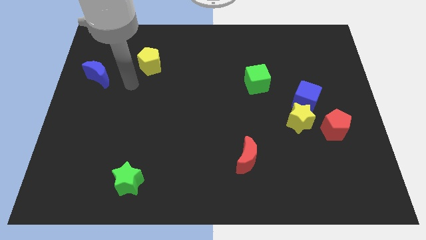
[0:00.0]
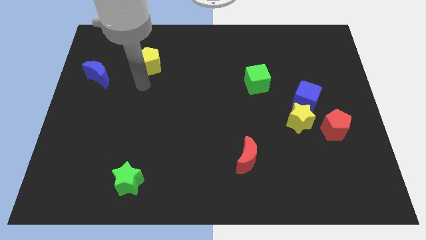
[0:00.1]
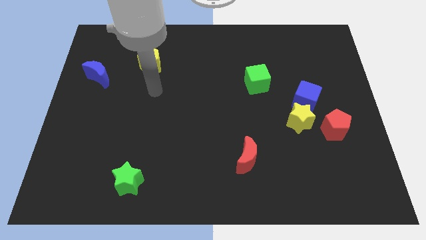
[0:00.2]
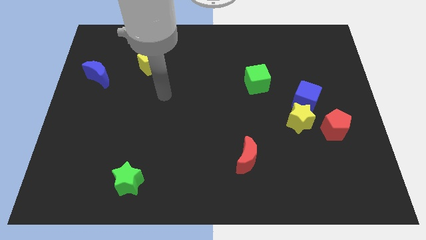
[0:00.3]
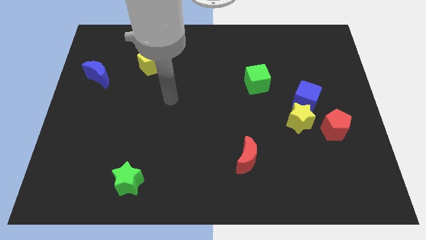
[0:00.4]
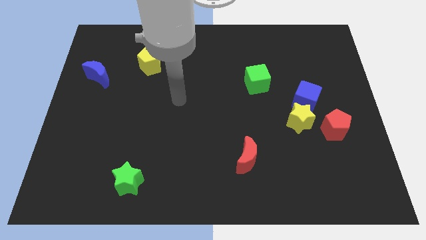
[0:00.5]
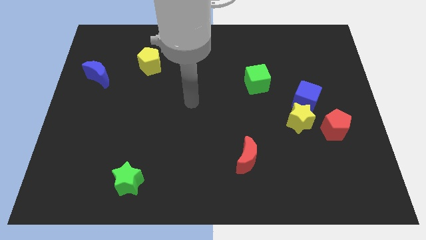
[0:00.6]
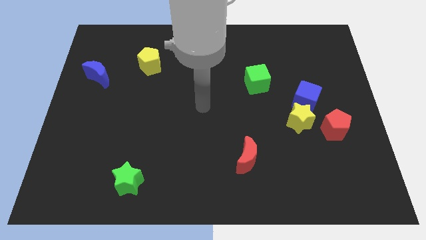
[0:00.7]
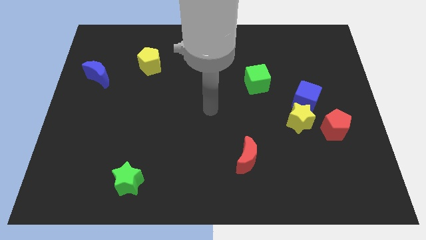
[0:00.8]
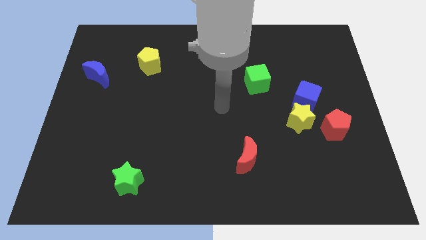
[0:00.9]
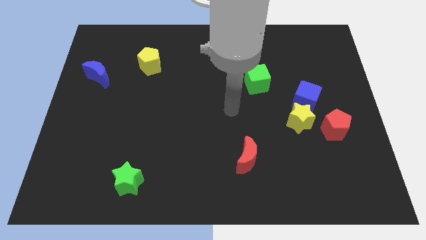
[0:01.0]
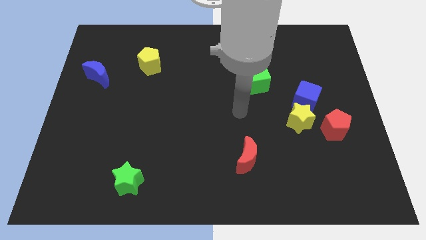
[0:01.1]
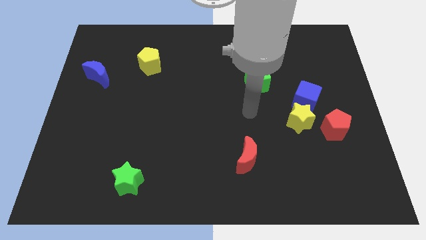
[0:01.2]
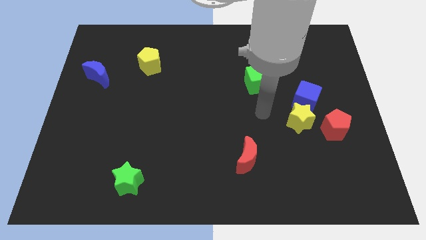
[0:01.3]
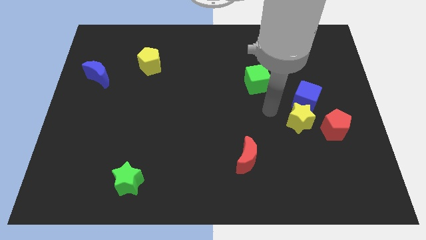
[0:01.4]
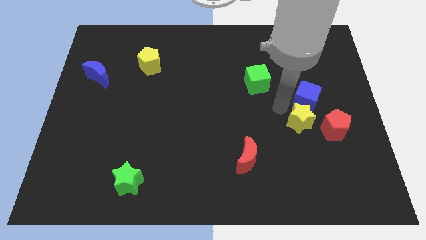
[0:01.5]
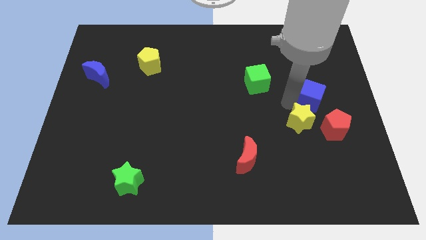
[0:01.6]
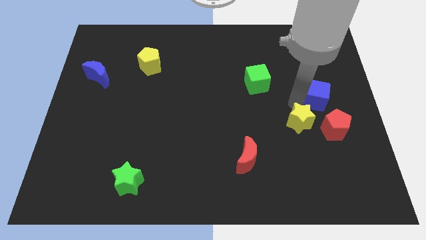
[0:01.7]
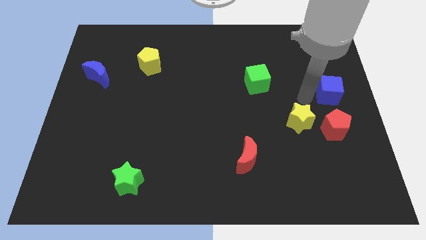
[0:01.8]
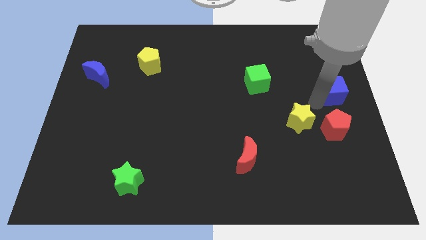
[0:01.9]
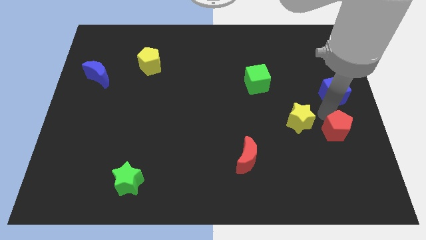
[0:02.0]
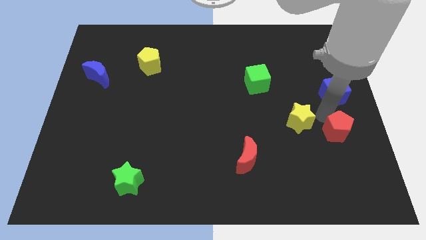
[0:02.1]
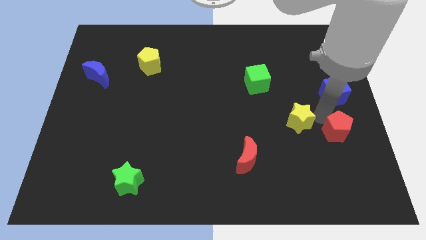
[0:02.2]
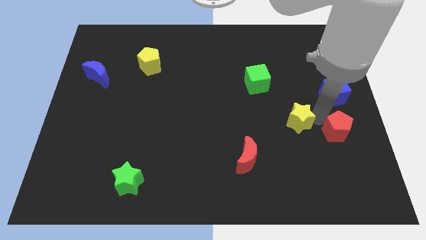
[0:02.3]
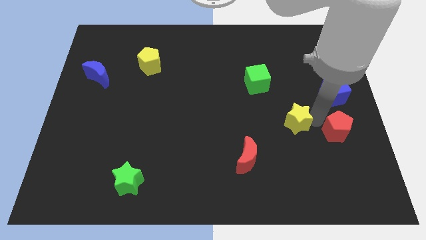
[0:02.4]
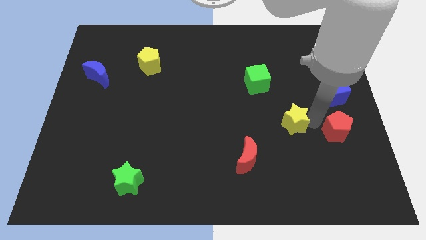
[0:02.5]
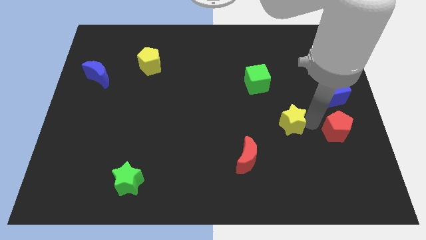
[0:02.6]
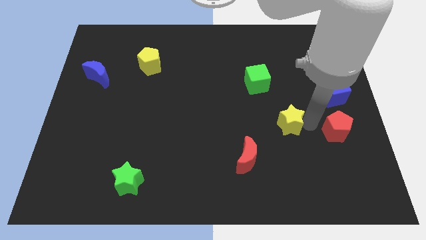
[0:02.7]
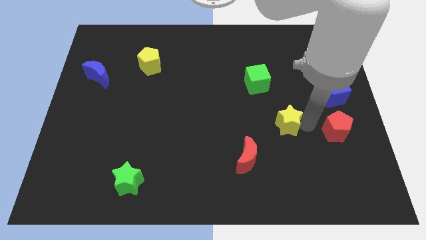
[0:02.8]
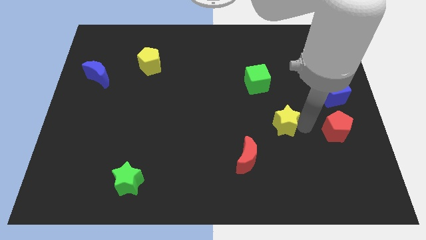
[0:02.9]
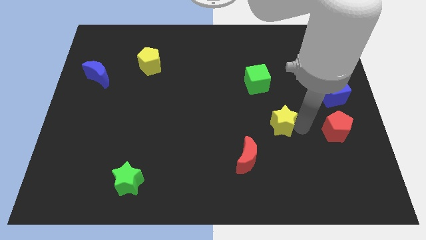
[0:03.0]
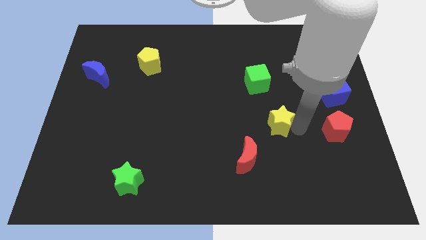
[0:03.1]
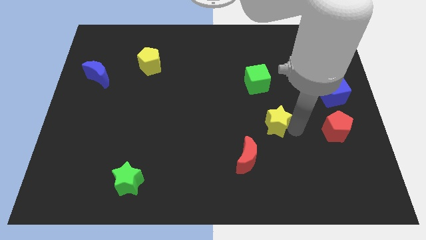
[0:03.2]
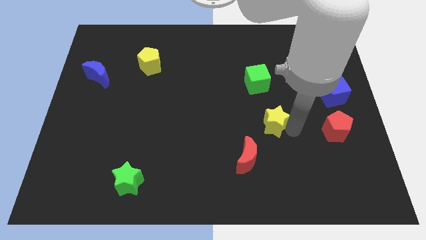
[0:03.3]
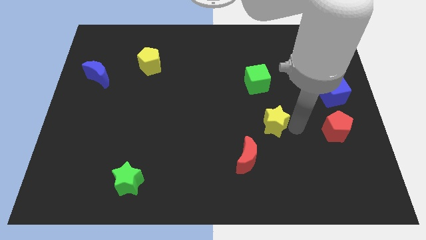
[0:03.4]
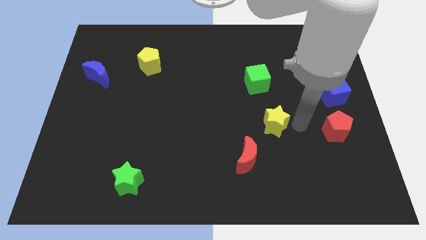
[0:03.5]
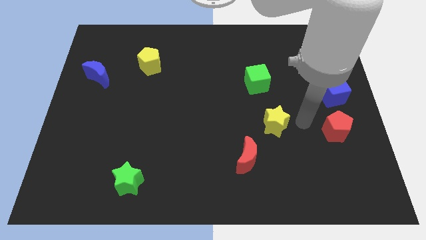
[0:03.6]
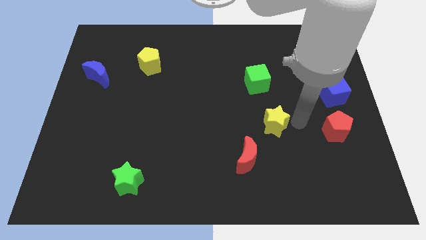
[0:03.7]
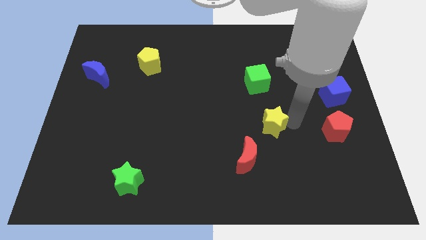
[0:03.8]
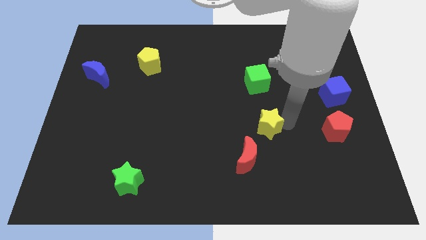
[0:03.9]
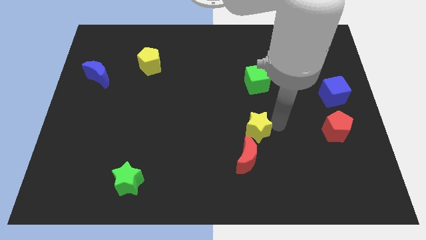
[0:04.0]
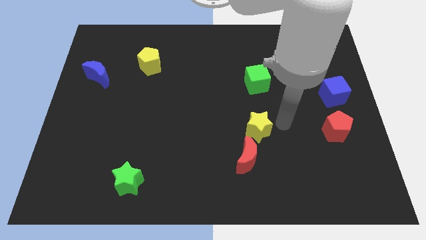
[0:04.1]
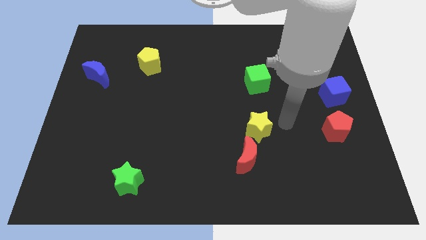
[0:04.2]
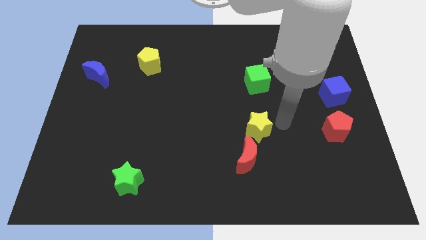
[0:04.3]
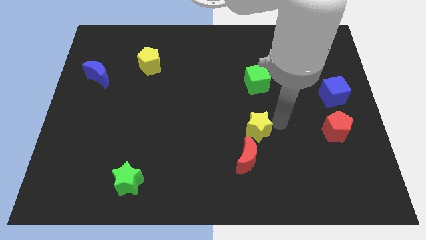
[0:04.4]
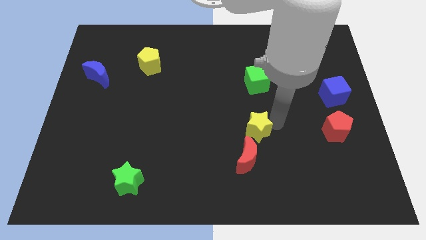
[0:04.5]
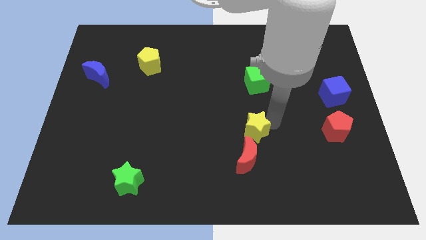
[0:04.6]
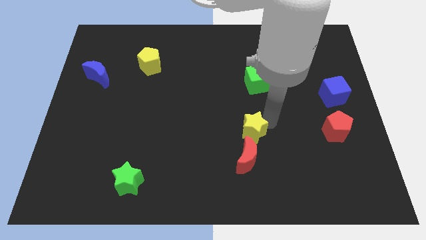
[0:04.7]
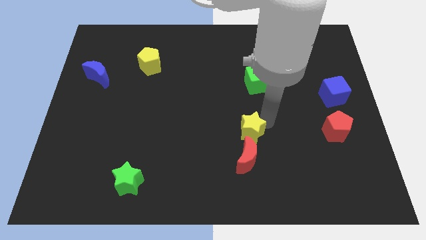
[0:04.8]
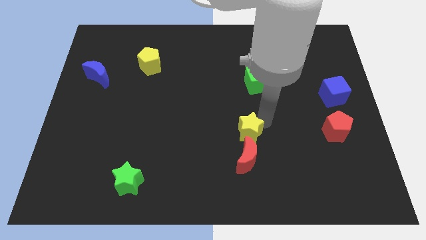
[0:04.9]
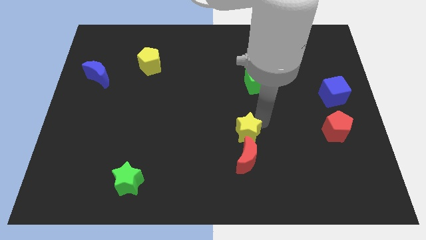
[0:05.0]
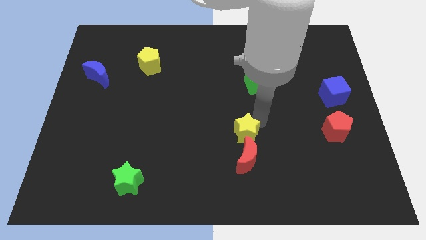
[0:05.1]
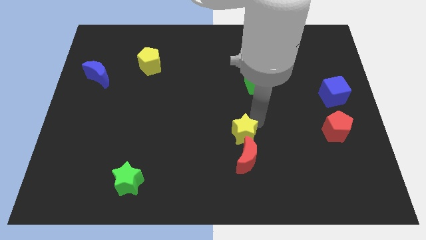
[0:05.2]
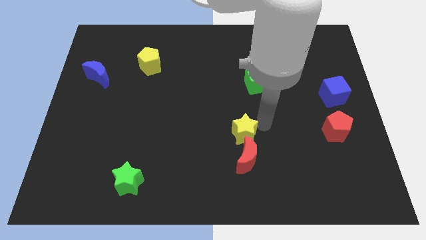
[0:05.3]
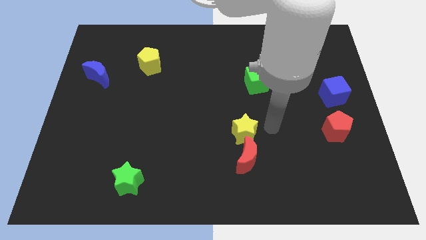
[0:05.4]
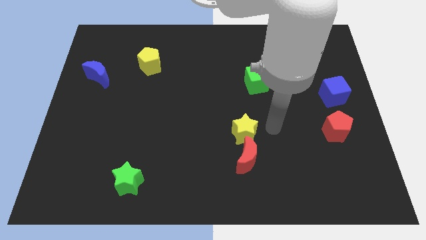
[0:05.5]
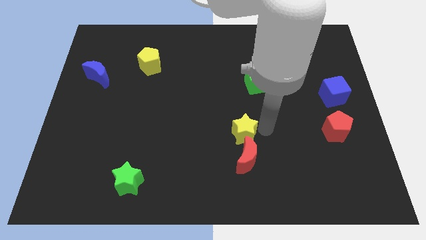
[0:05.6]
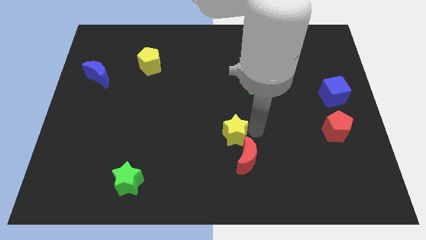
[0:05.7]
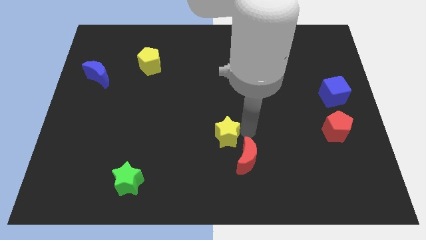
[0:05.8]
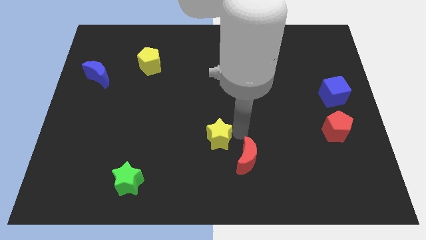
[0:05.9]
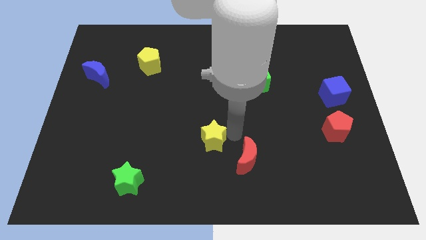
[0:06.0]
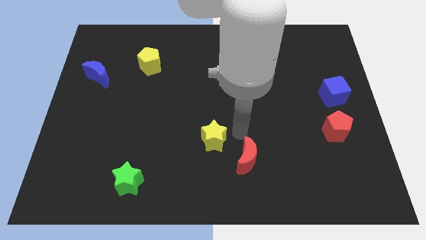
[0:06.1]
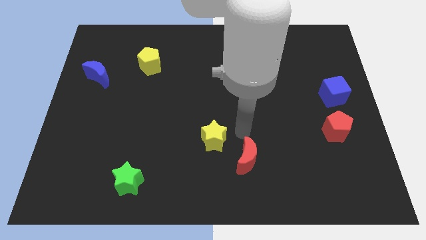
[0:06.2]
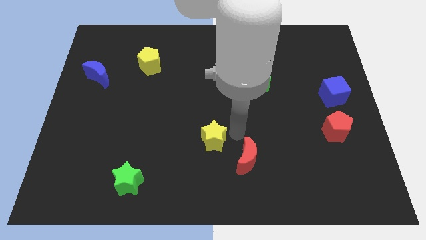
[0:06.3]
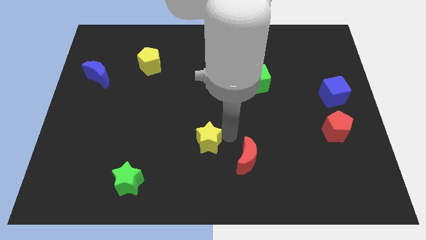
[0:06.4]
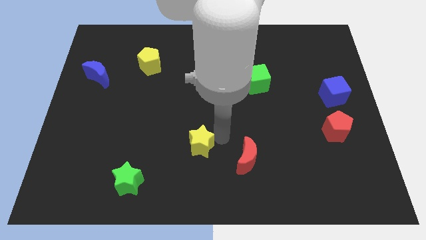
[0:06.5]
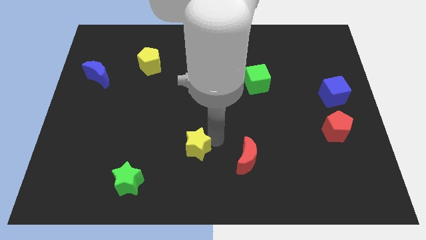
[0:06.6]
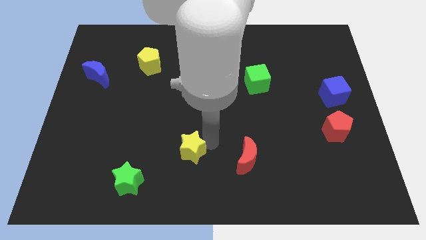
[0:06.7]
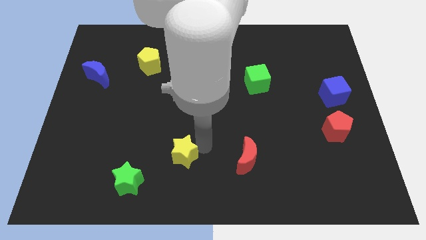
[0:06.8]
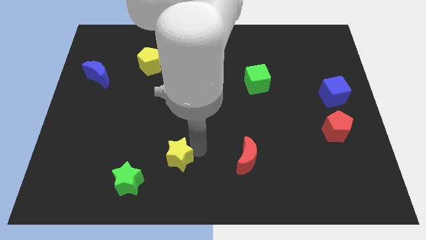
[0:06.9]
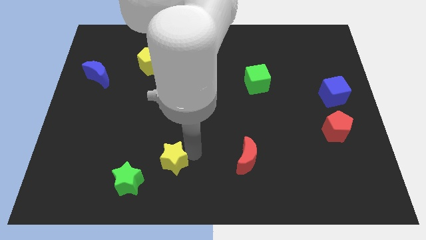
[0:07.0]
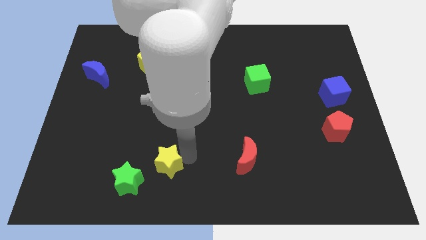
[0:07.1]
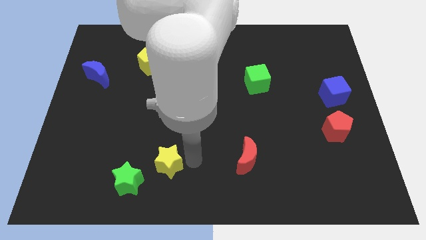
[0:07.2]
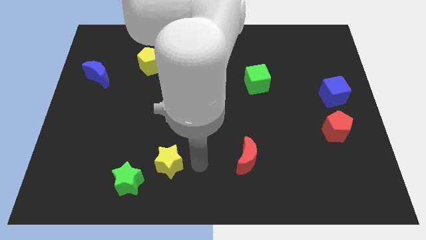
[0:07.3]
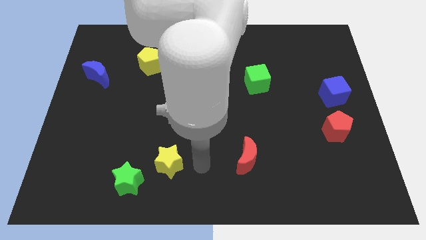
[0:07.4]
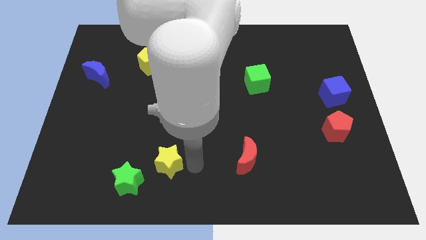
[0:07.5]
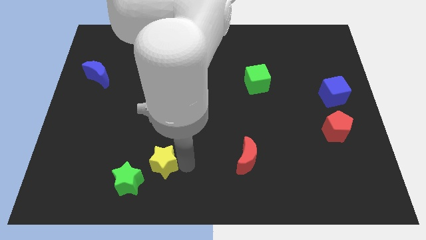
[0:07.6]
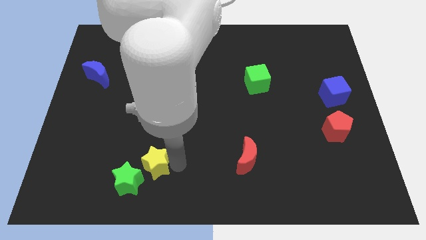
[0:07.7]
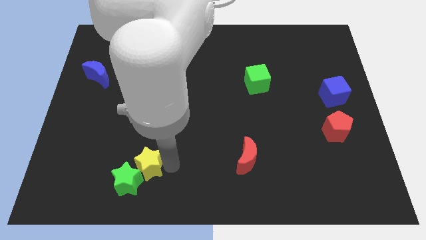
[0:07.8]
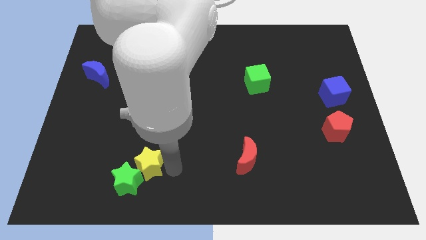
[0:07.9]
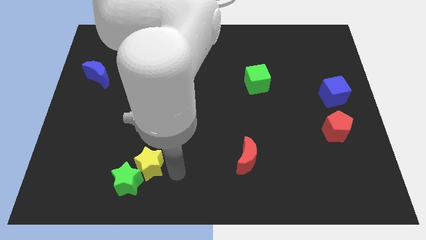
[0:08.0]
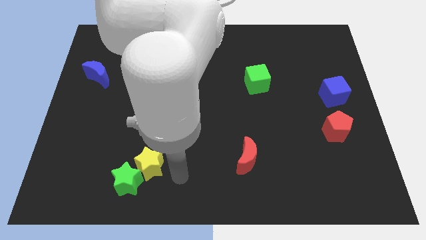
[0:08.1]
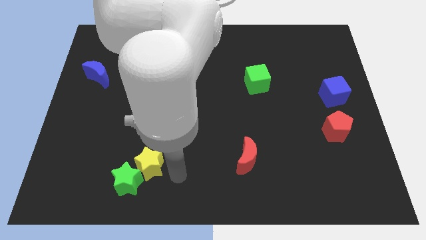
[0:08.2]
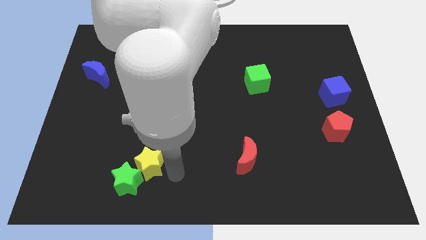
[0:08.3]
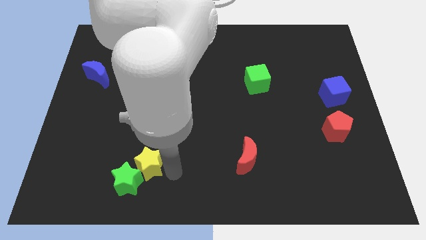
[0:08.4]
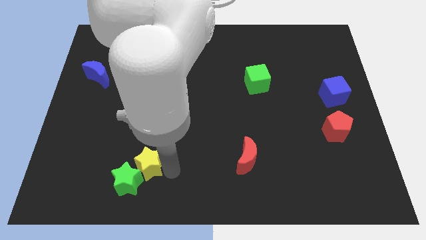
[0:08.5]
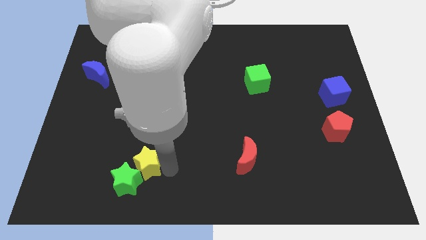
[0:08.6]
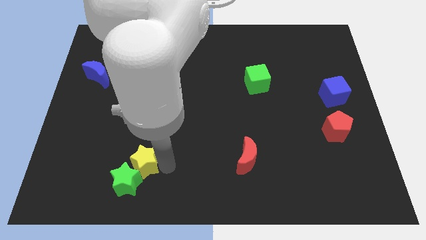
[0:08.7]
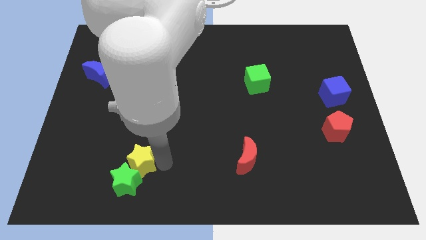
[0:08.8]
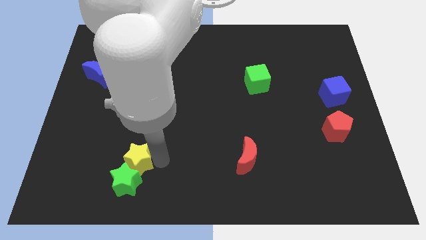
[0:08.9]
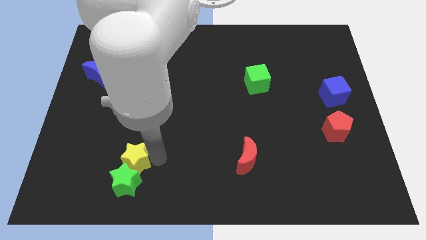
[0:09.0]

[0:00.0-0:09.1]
move the yellow star to the top left of the green star
